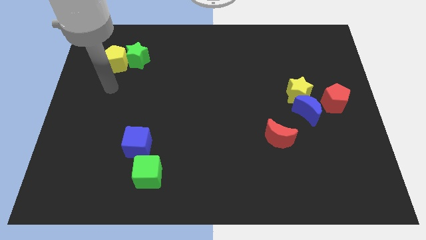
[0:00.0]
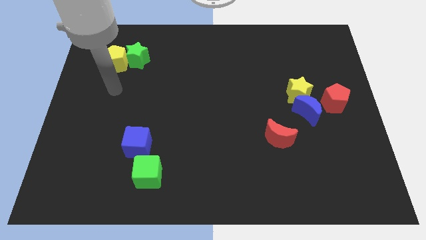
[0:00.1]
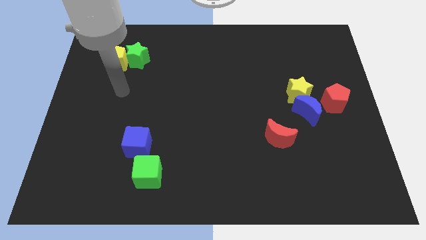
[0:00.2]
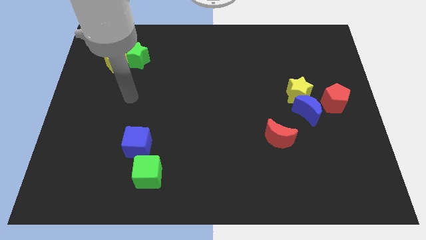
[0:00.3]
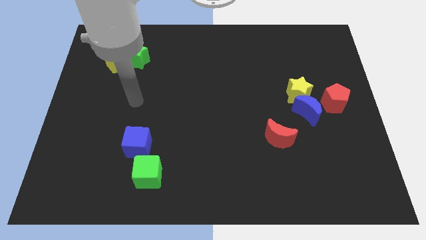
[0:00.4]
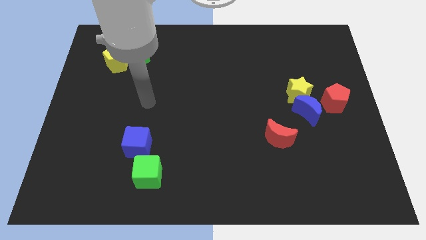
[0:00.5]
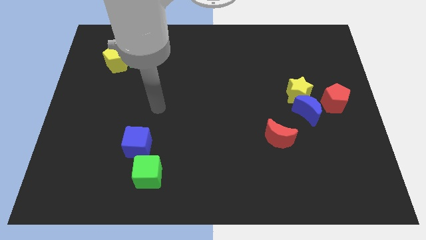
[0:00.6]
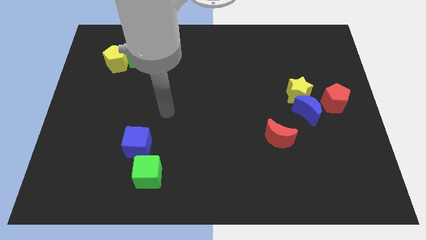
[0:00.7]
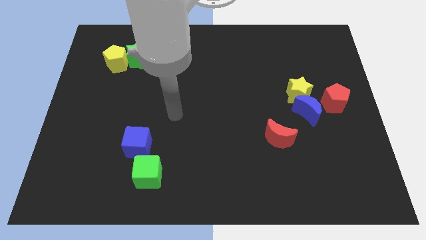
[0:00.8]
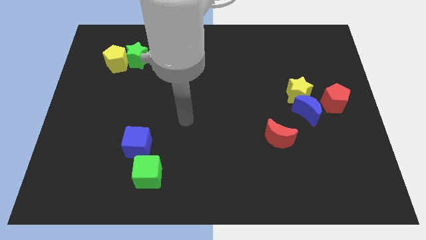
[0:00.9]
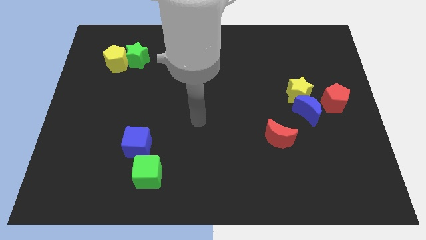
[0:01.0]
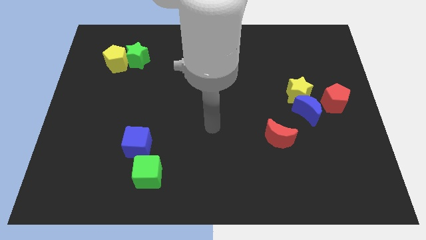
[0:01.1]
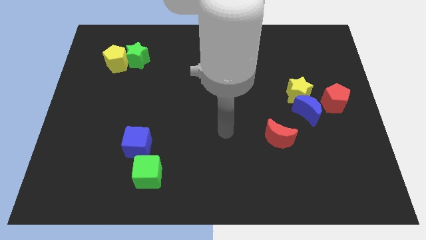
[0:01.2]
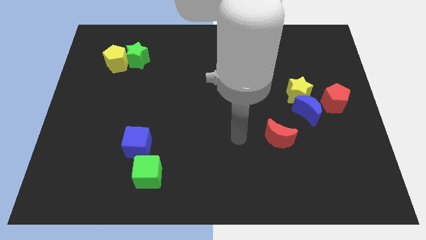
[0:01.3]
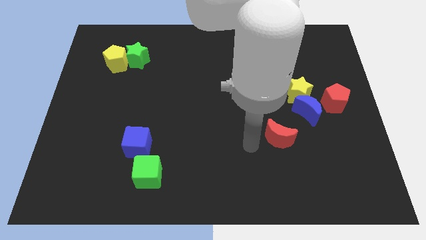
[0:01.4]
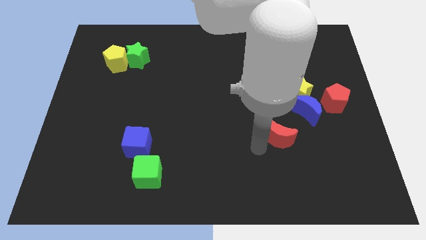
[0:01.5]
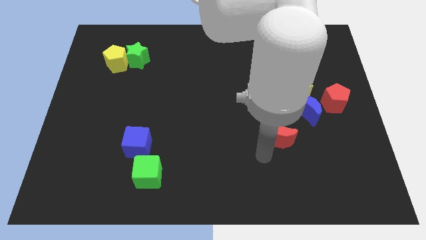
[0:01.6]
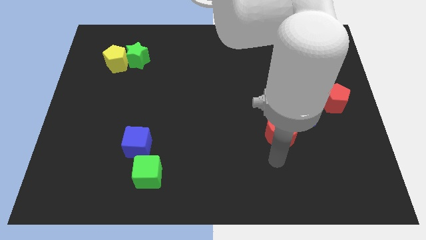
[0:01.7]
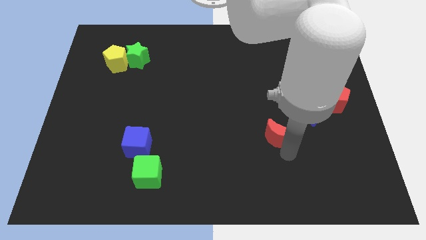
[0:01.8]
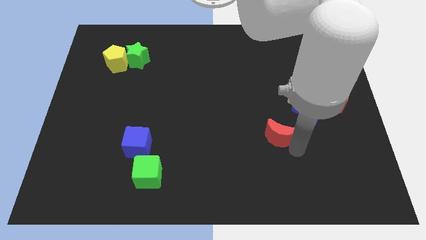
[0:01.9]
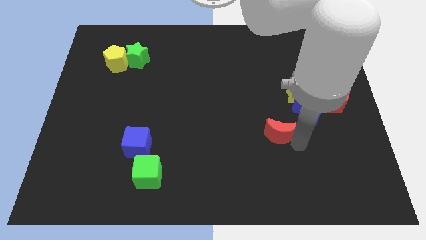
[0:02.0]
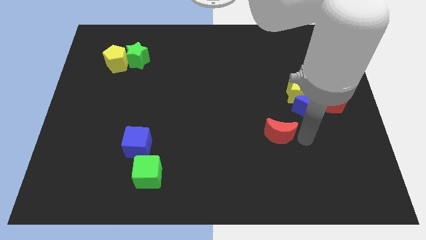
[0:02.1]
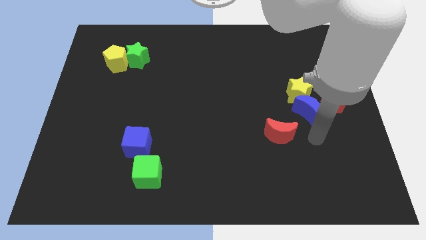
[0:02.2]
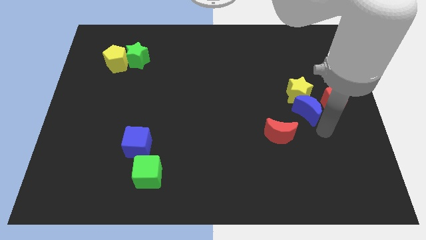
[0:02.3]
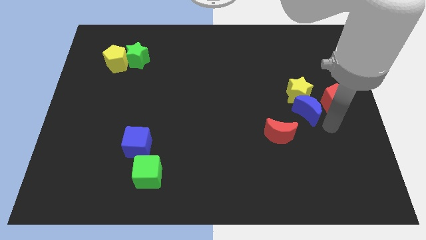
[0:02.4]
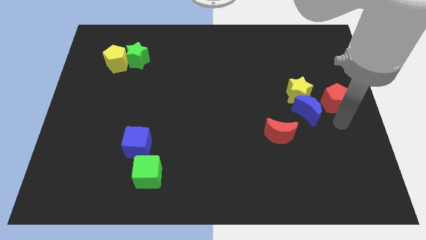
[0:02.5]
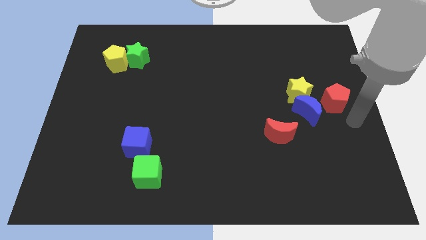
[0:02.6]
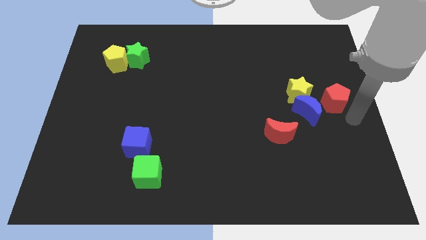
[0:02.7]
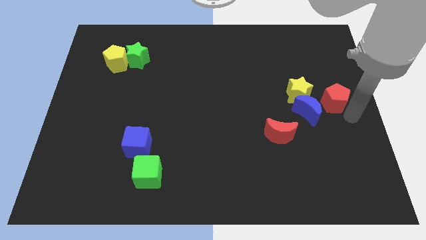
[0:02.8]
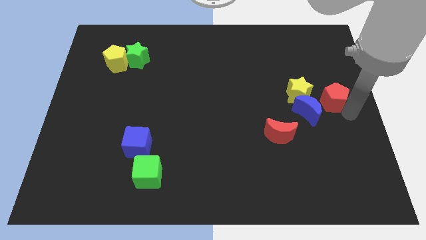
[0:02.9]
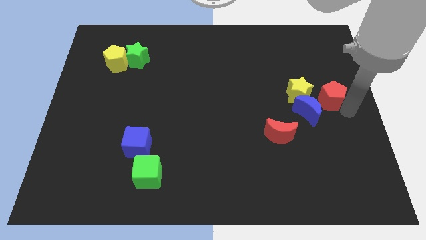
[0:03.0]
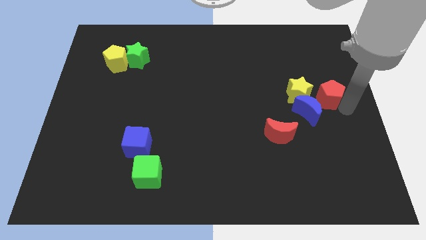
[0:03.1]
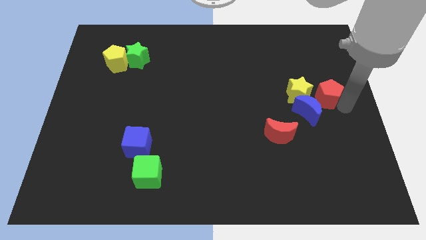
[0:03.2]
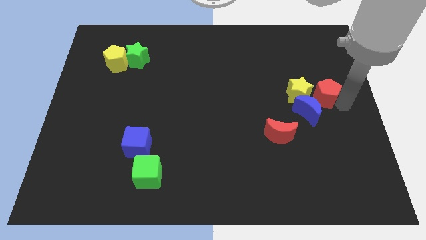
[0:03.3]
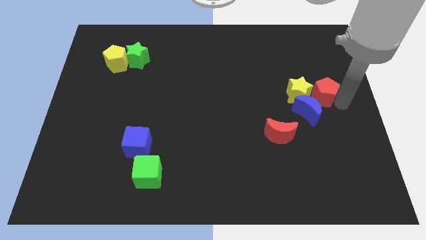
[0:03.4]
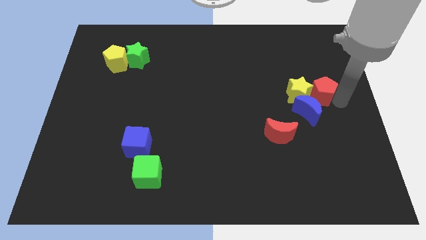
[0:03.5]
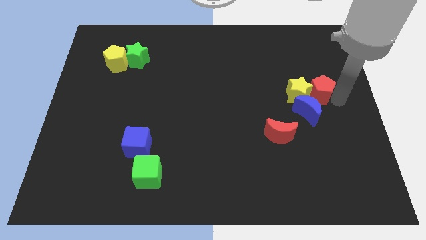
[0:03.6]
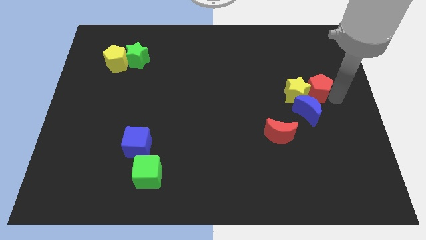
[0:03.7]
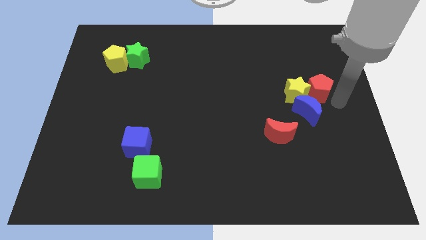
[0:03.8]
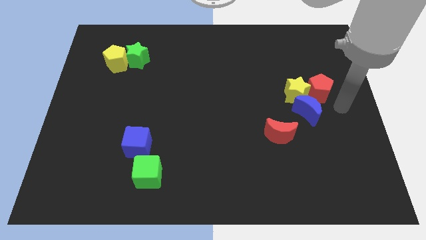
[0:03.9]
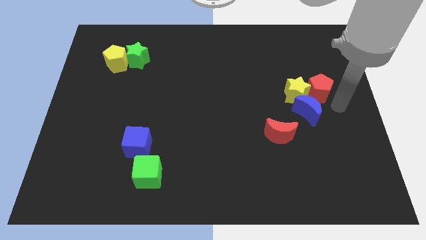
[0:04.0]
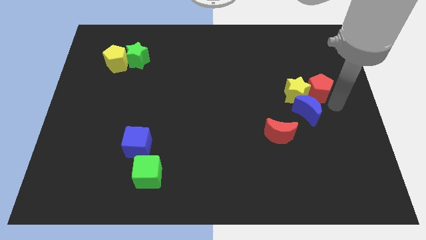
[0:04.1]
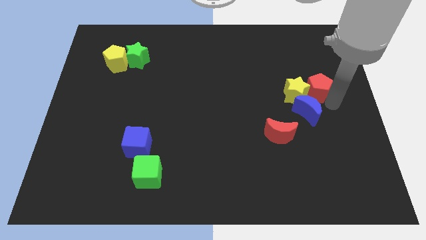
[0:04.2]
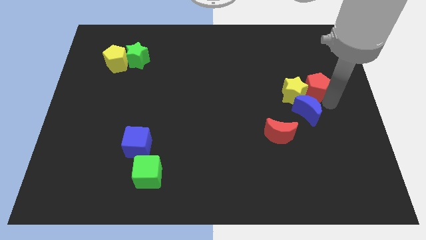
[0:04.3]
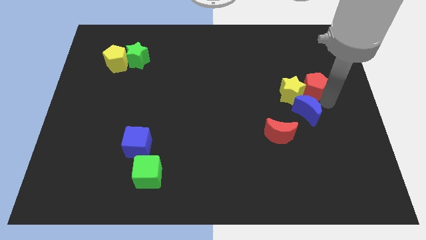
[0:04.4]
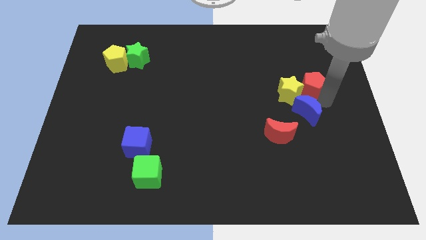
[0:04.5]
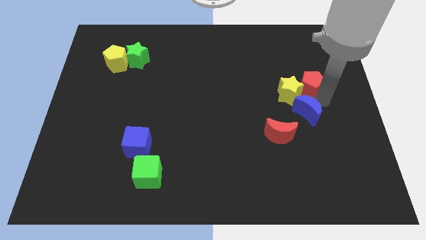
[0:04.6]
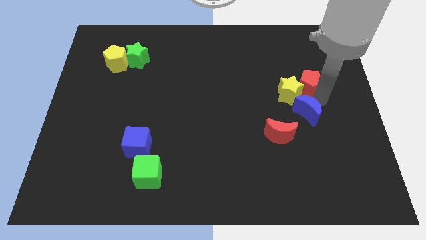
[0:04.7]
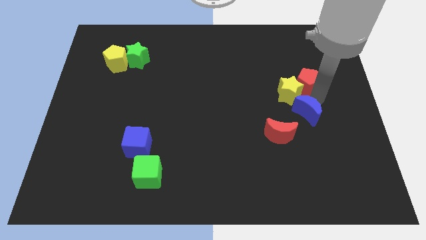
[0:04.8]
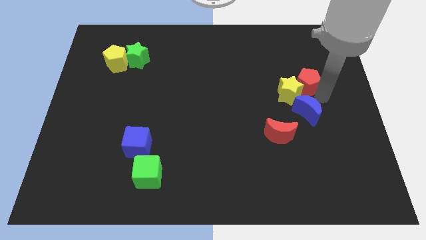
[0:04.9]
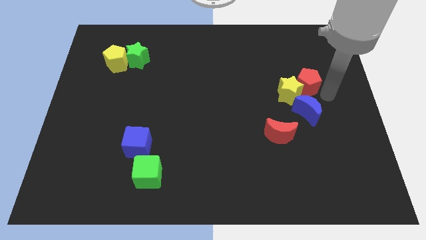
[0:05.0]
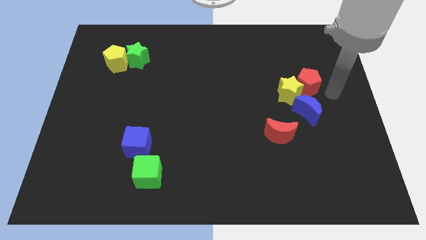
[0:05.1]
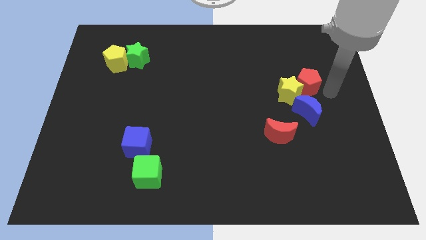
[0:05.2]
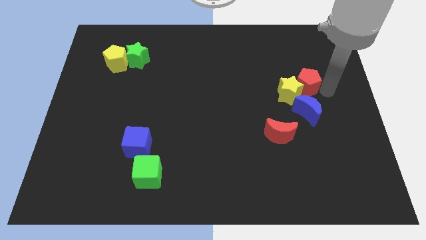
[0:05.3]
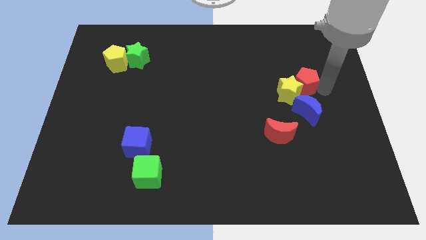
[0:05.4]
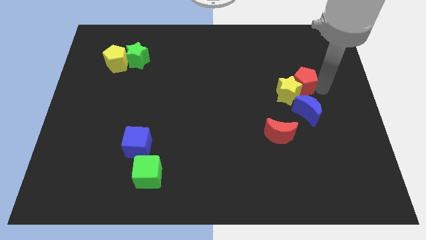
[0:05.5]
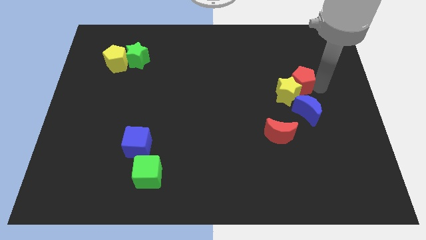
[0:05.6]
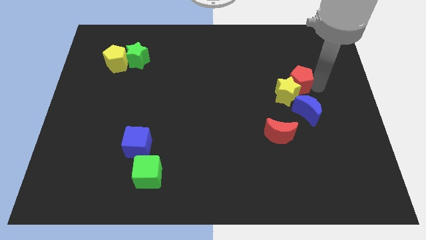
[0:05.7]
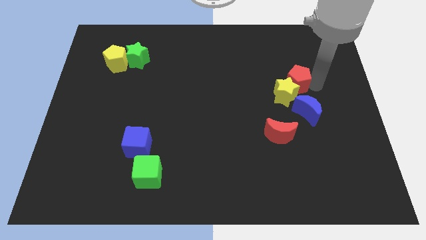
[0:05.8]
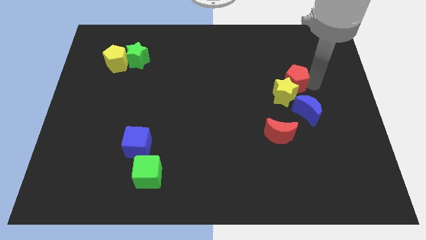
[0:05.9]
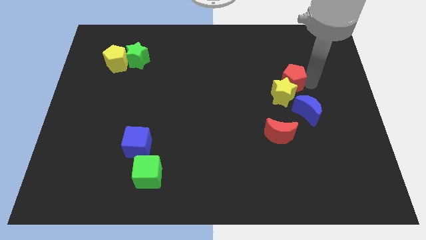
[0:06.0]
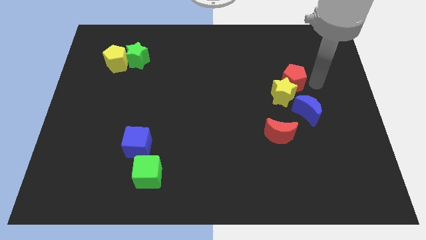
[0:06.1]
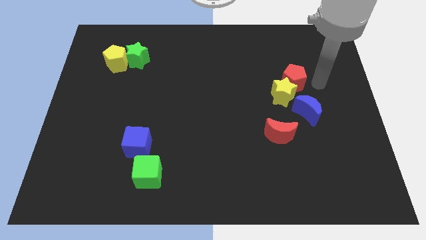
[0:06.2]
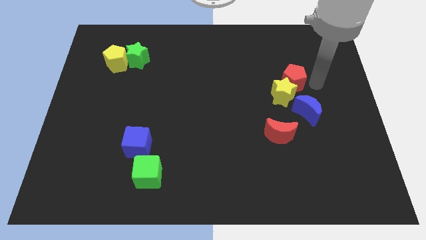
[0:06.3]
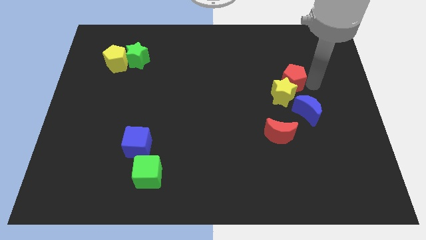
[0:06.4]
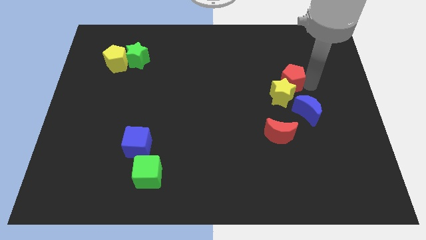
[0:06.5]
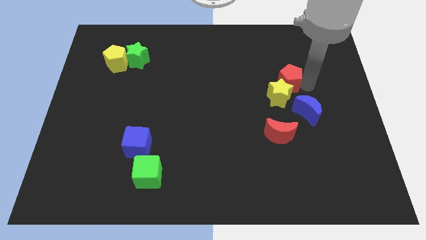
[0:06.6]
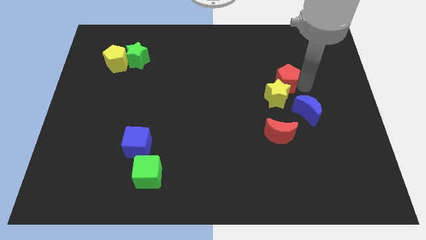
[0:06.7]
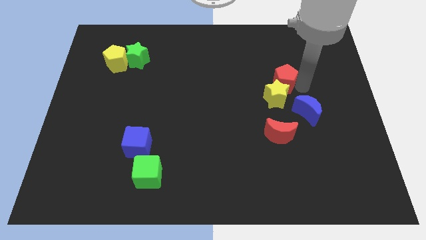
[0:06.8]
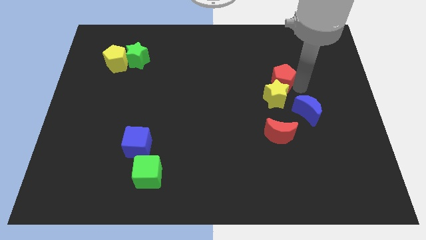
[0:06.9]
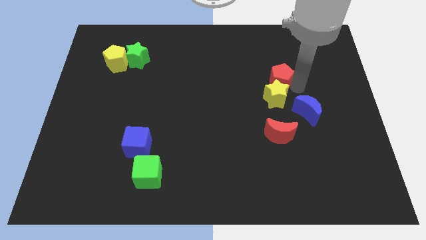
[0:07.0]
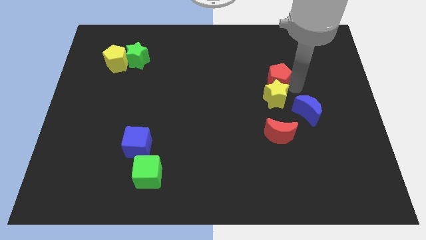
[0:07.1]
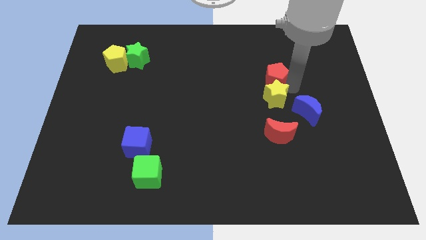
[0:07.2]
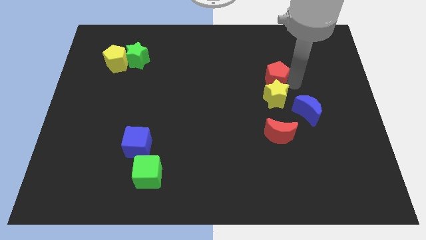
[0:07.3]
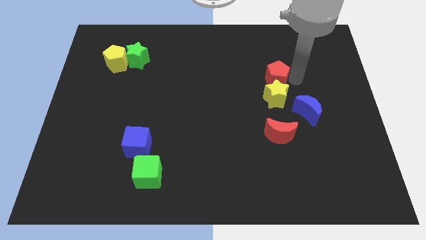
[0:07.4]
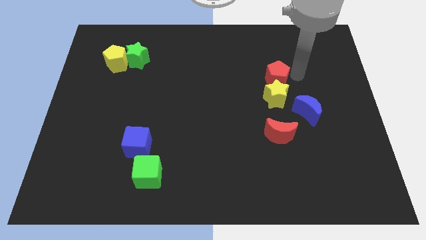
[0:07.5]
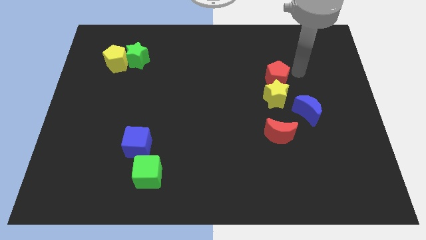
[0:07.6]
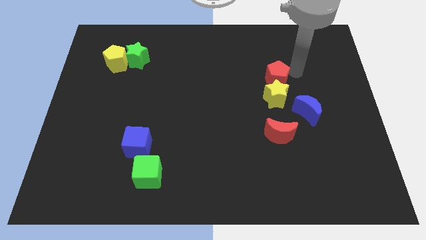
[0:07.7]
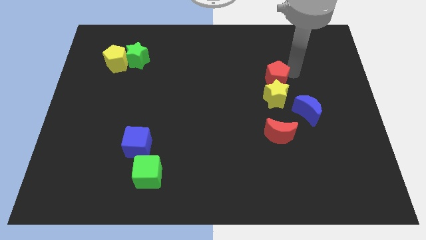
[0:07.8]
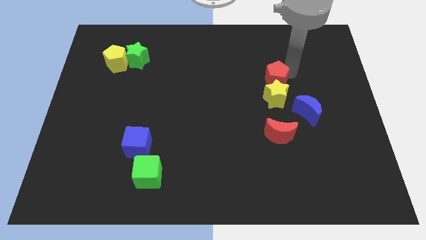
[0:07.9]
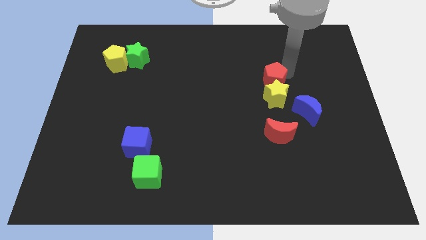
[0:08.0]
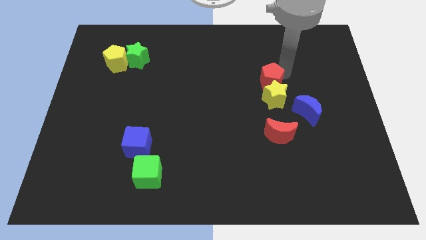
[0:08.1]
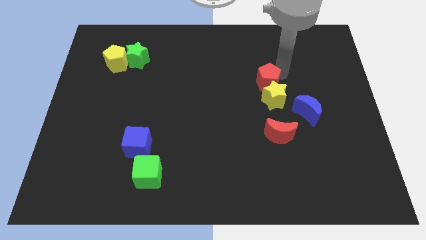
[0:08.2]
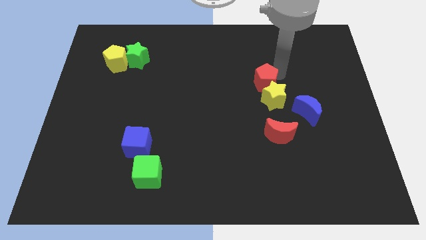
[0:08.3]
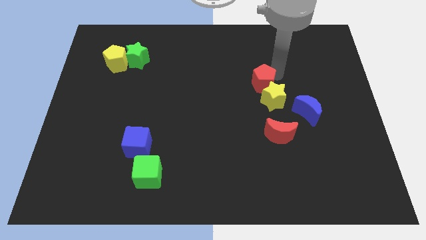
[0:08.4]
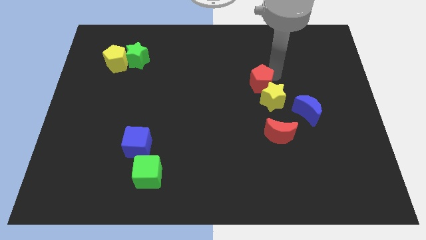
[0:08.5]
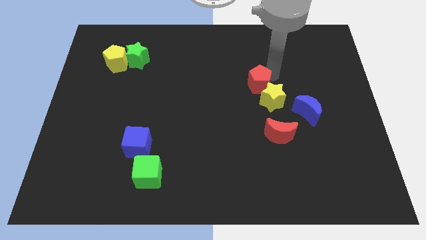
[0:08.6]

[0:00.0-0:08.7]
put the red pentagon to the middle
